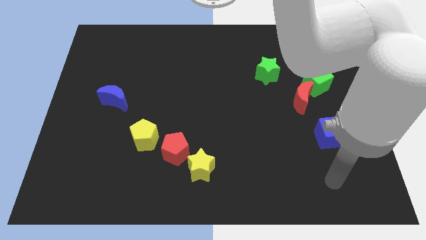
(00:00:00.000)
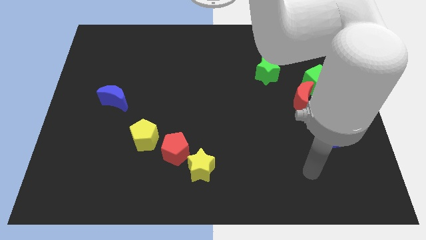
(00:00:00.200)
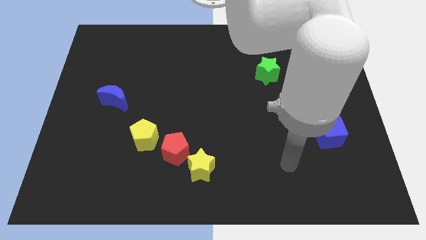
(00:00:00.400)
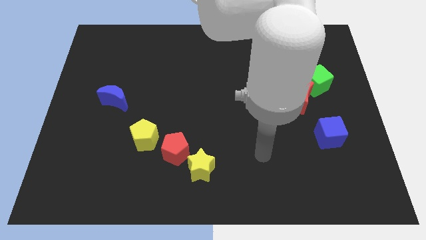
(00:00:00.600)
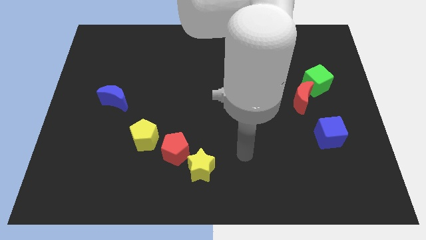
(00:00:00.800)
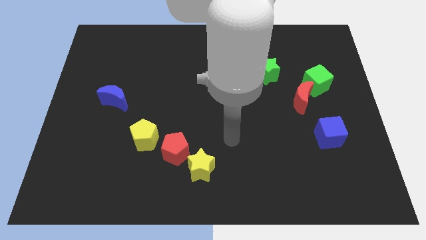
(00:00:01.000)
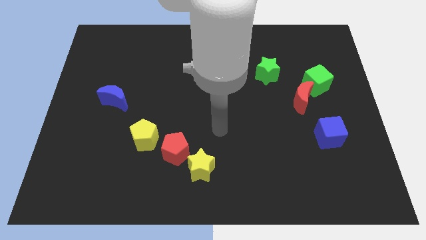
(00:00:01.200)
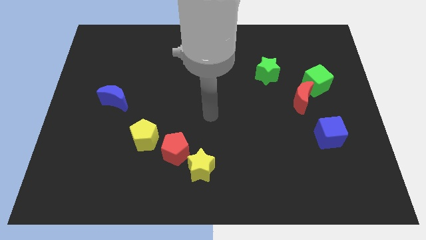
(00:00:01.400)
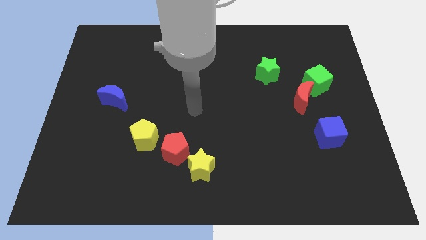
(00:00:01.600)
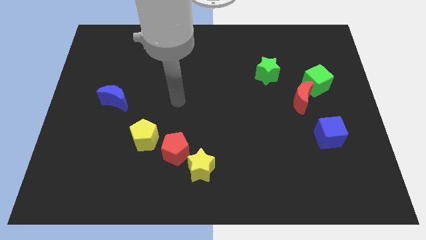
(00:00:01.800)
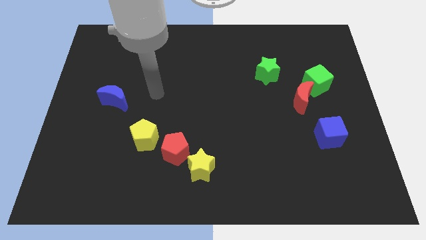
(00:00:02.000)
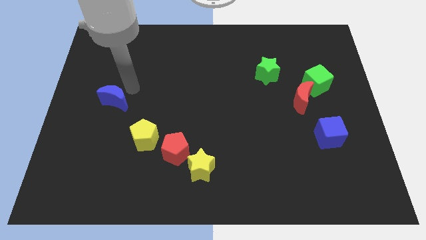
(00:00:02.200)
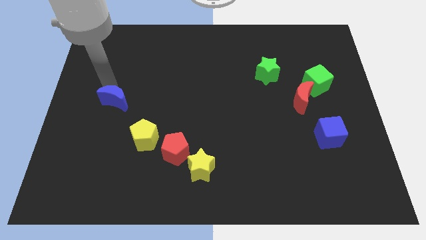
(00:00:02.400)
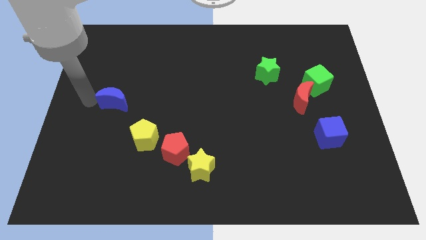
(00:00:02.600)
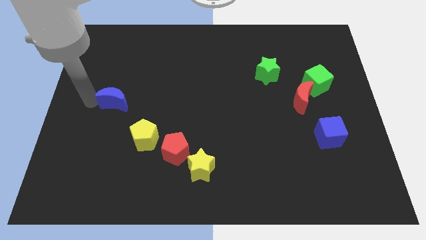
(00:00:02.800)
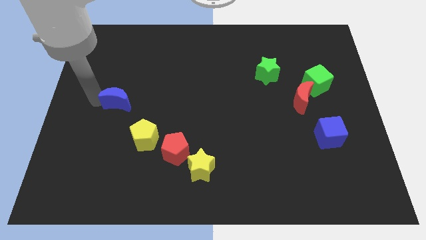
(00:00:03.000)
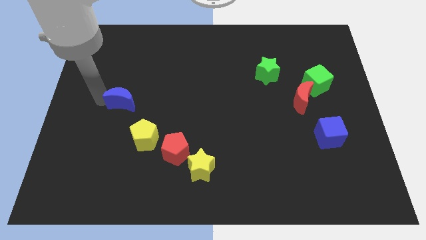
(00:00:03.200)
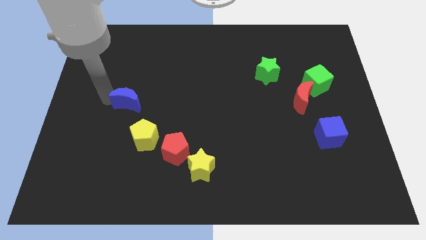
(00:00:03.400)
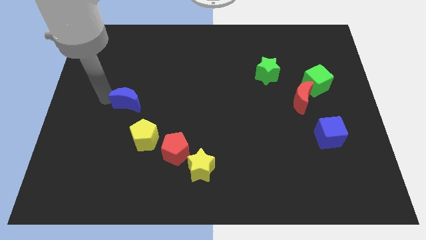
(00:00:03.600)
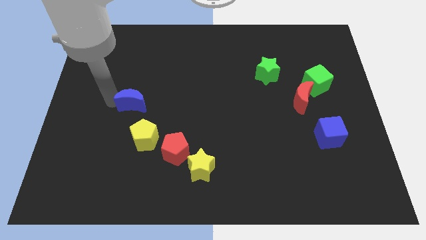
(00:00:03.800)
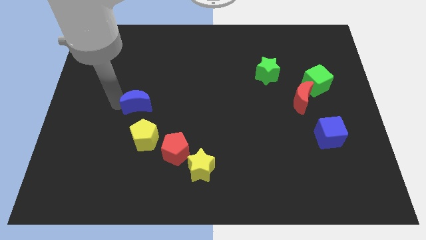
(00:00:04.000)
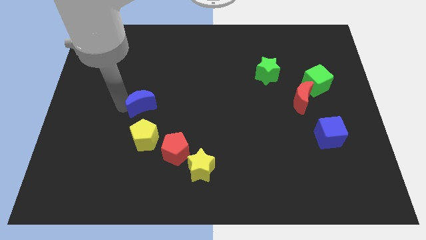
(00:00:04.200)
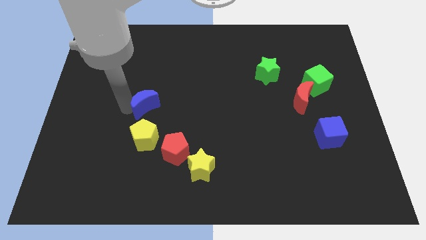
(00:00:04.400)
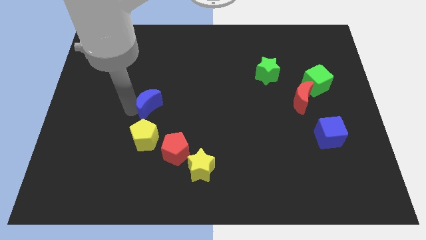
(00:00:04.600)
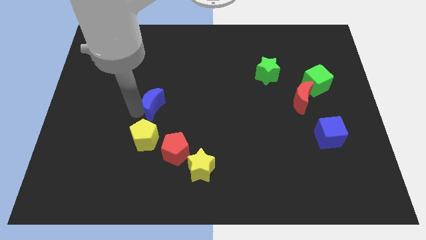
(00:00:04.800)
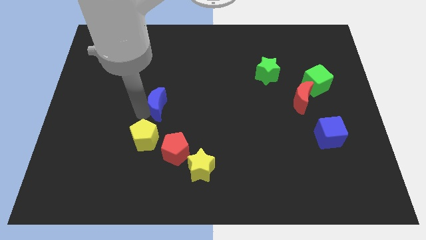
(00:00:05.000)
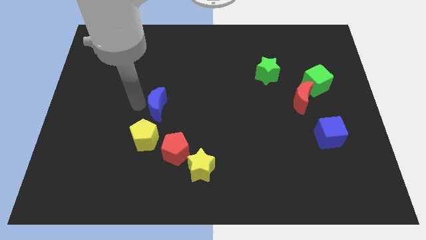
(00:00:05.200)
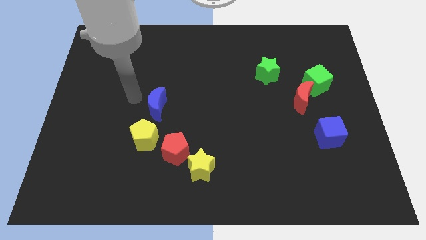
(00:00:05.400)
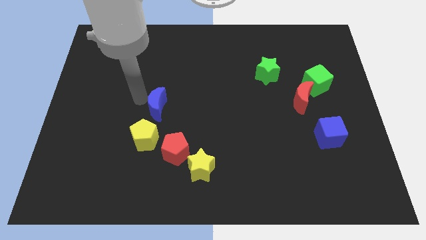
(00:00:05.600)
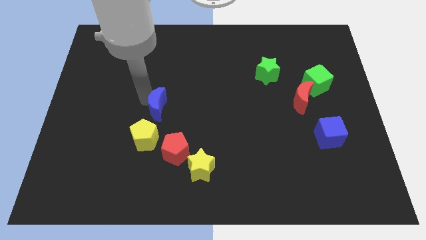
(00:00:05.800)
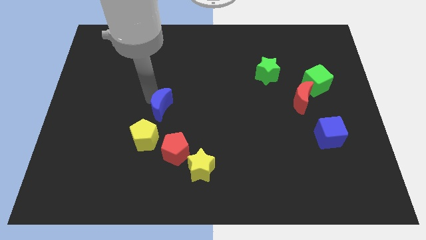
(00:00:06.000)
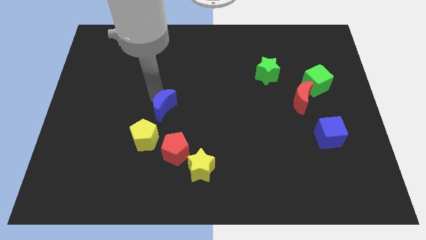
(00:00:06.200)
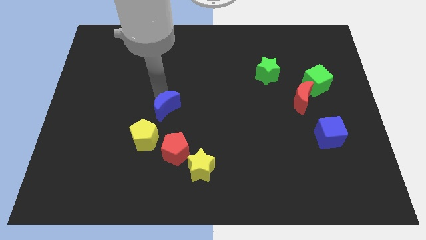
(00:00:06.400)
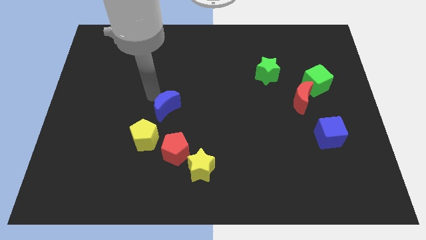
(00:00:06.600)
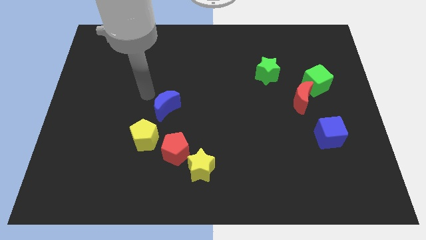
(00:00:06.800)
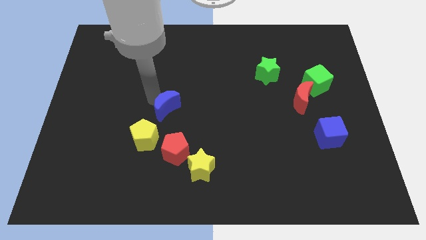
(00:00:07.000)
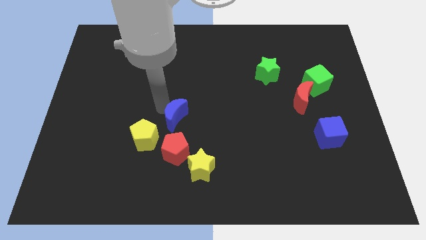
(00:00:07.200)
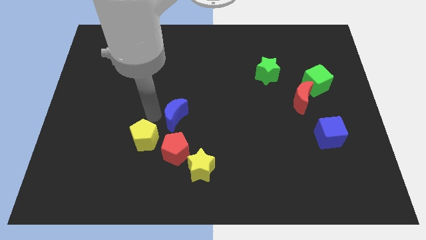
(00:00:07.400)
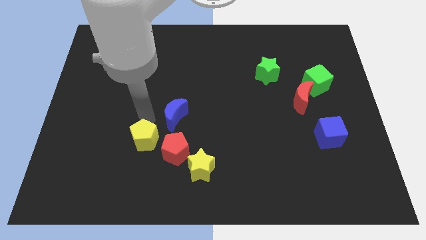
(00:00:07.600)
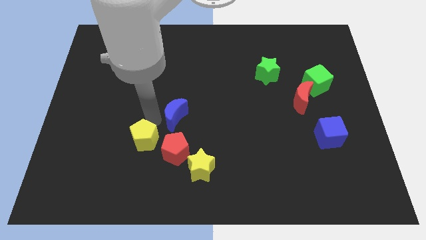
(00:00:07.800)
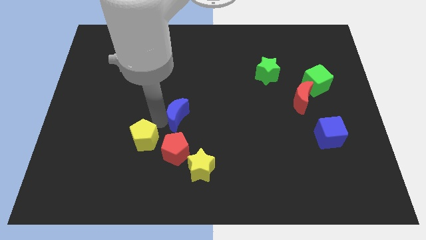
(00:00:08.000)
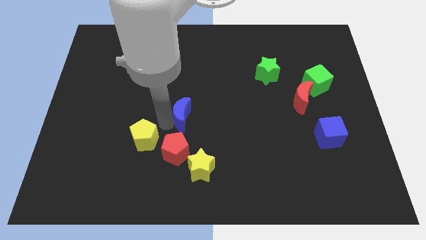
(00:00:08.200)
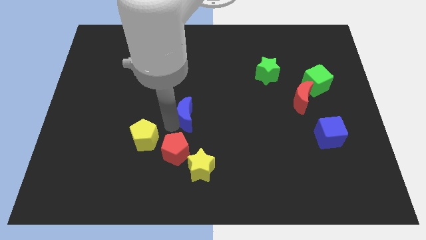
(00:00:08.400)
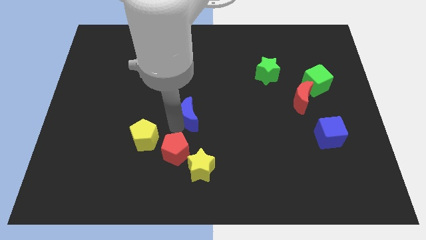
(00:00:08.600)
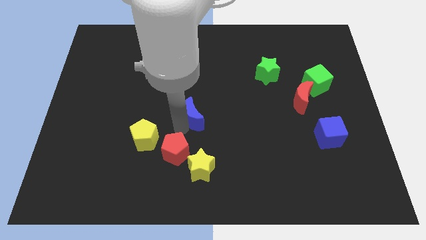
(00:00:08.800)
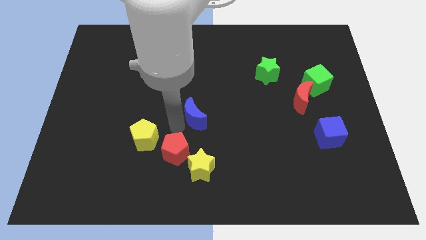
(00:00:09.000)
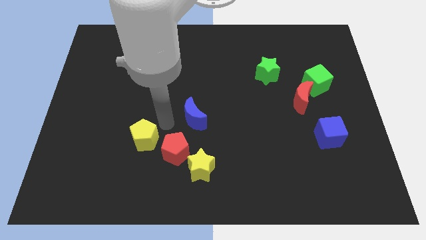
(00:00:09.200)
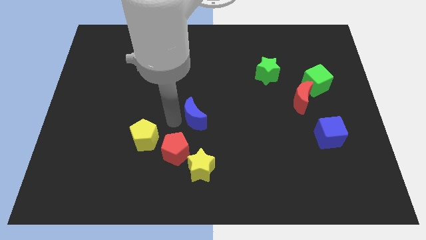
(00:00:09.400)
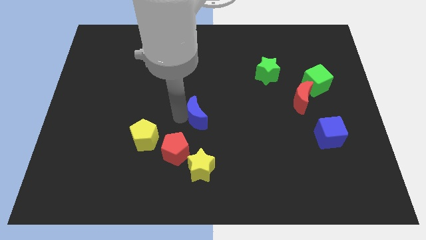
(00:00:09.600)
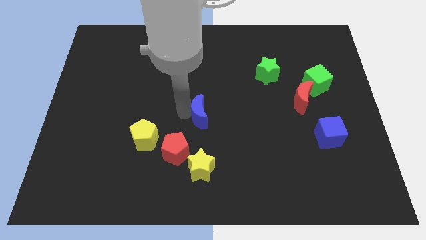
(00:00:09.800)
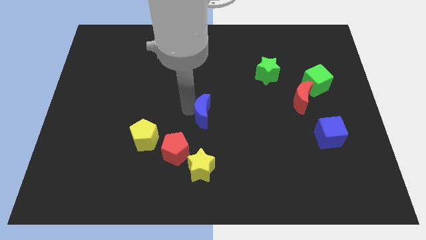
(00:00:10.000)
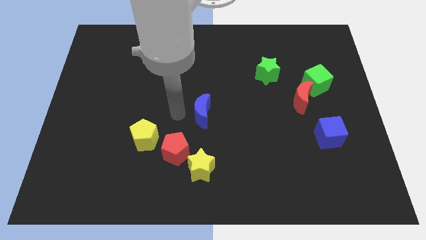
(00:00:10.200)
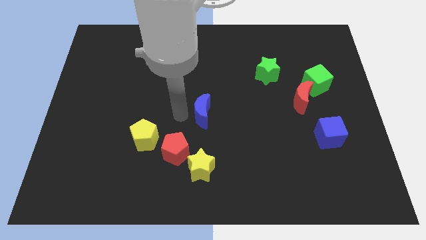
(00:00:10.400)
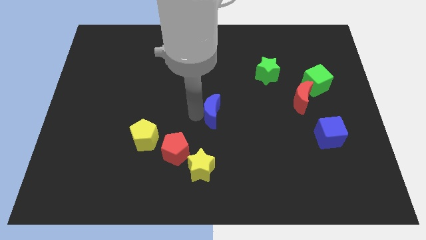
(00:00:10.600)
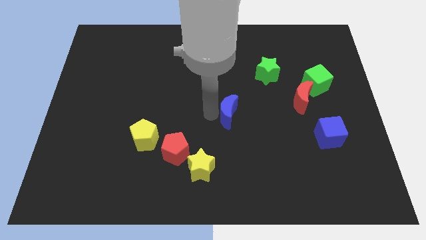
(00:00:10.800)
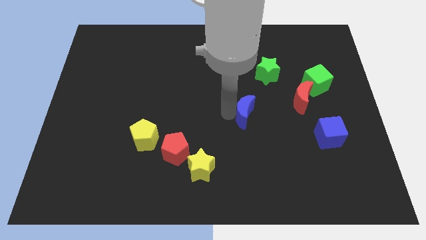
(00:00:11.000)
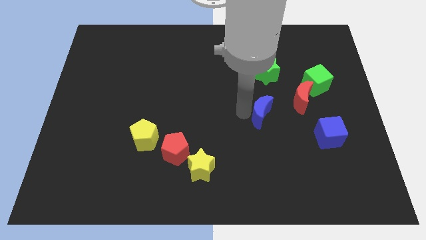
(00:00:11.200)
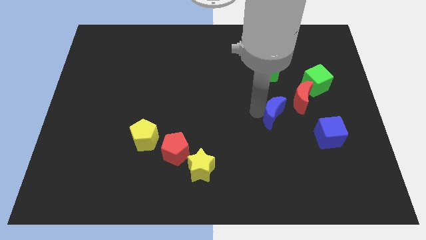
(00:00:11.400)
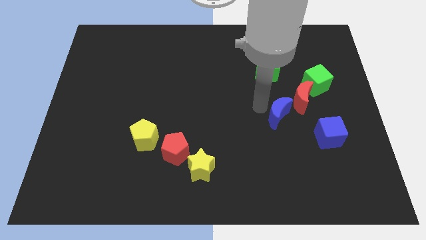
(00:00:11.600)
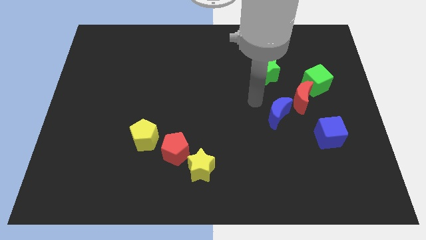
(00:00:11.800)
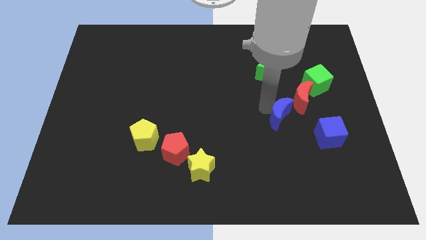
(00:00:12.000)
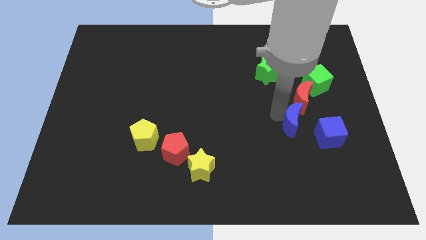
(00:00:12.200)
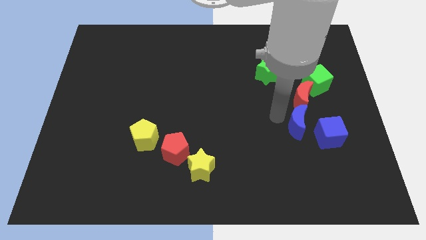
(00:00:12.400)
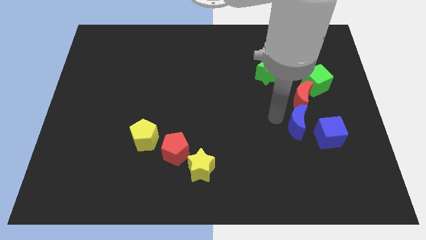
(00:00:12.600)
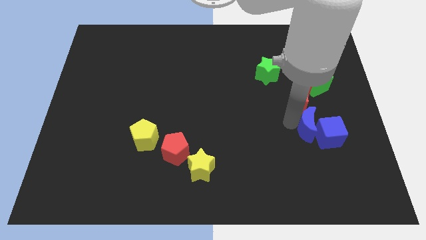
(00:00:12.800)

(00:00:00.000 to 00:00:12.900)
slide the blue moon close to the blue cube

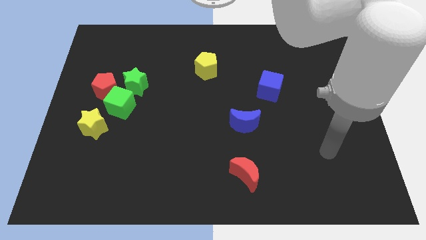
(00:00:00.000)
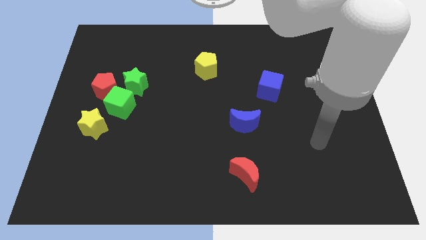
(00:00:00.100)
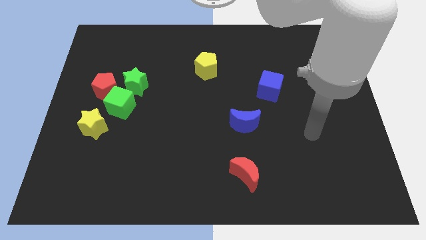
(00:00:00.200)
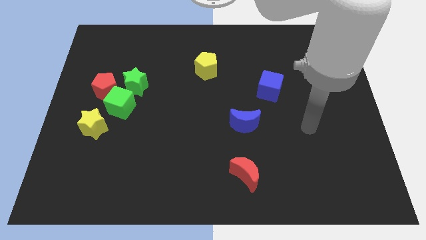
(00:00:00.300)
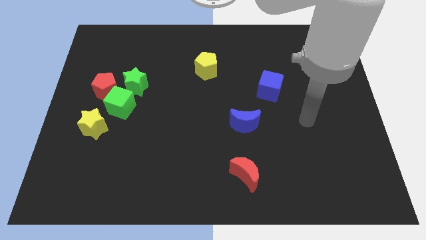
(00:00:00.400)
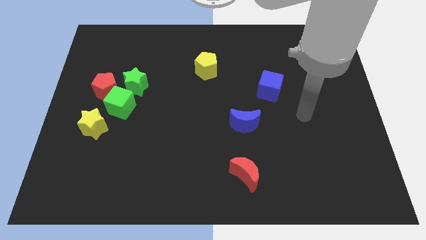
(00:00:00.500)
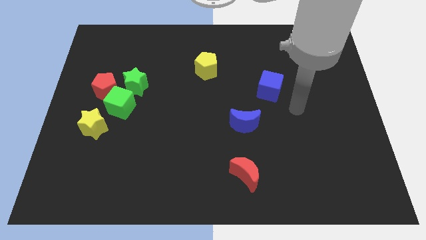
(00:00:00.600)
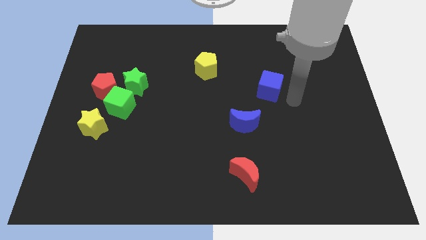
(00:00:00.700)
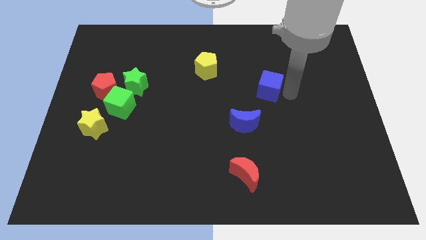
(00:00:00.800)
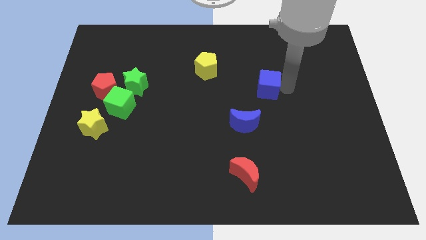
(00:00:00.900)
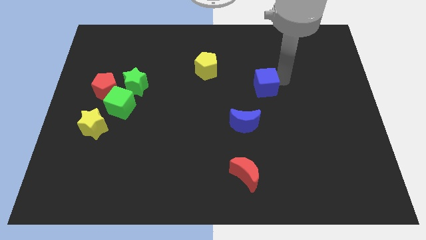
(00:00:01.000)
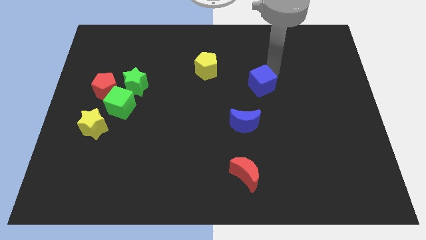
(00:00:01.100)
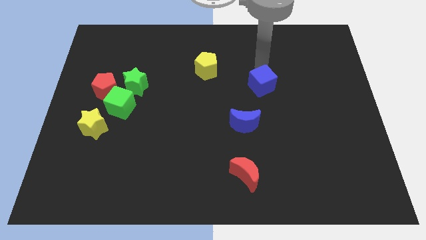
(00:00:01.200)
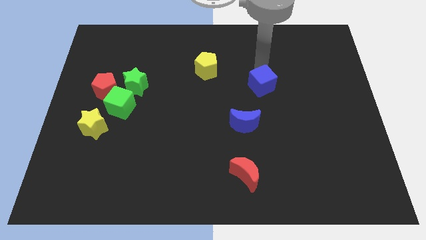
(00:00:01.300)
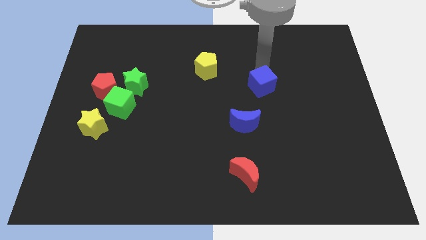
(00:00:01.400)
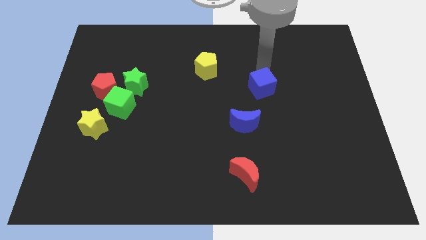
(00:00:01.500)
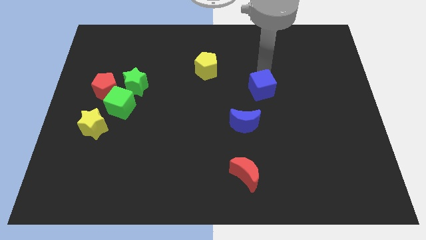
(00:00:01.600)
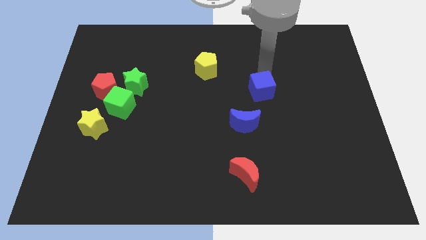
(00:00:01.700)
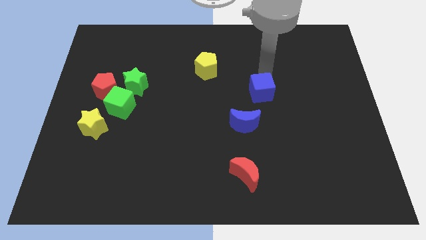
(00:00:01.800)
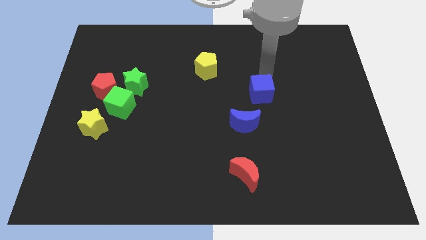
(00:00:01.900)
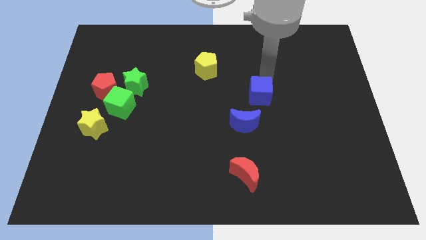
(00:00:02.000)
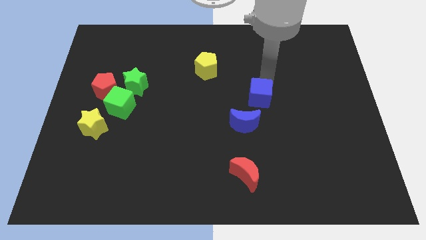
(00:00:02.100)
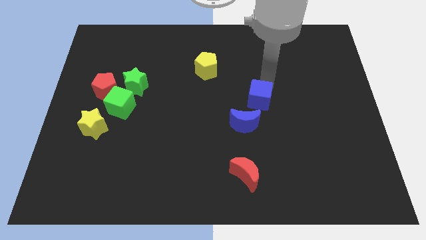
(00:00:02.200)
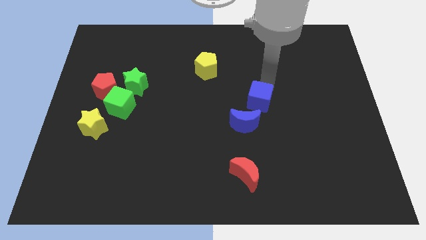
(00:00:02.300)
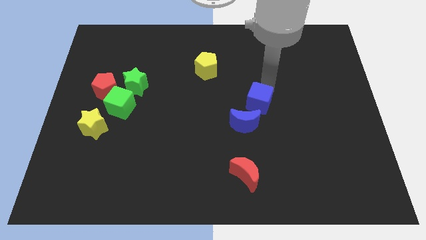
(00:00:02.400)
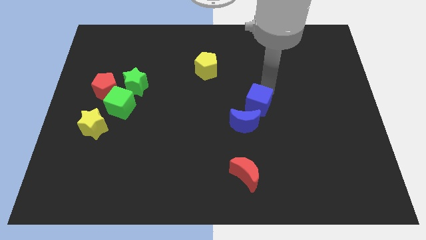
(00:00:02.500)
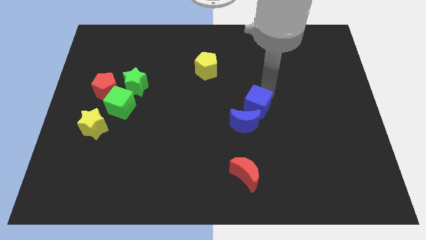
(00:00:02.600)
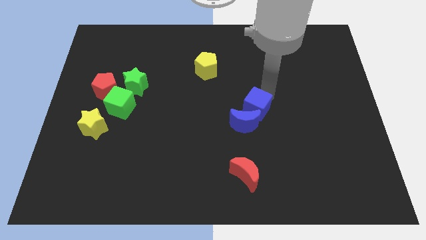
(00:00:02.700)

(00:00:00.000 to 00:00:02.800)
slide the blue cube towards the blue moon
